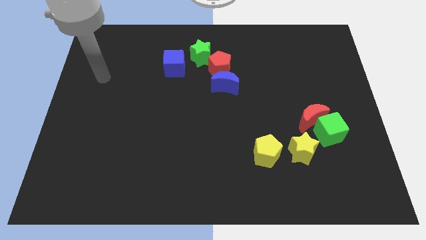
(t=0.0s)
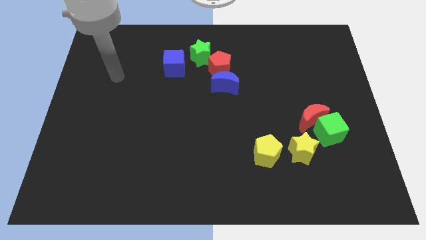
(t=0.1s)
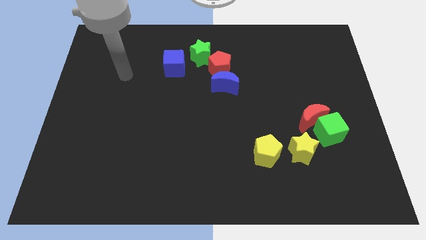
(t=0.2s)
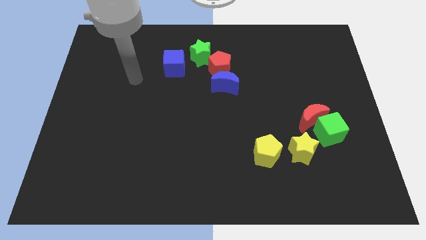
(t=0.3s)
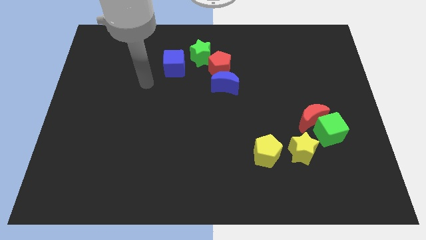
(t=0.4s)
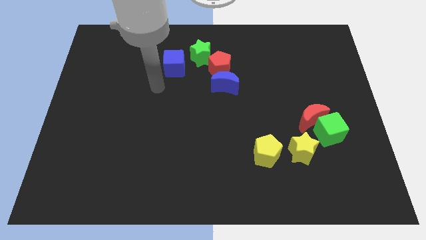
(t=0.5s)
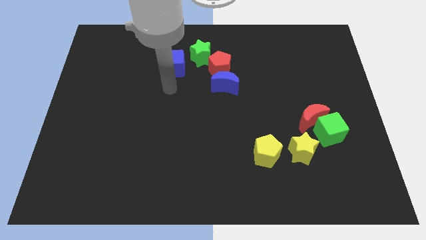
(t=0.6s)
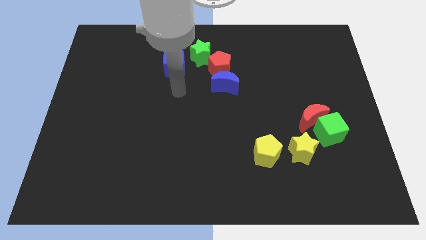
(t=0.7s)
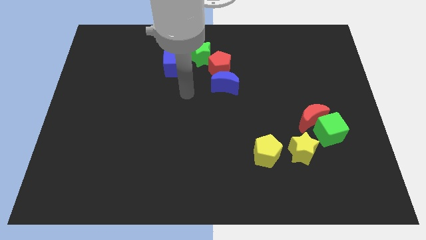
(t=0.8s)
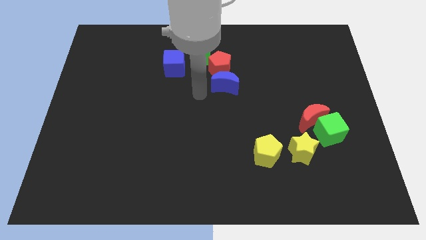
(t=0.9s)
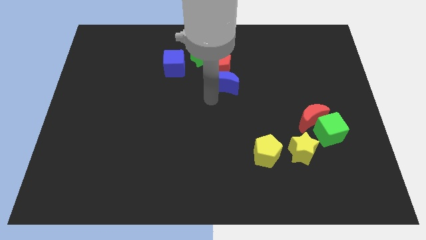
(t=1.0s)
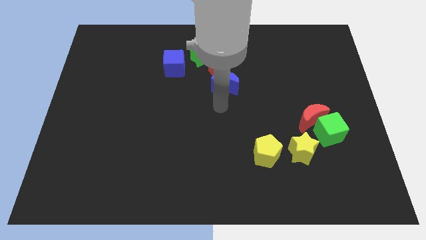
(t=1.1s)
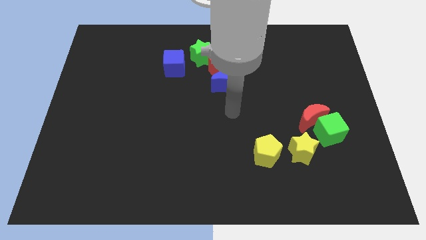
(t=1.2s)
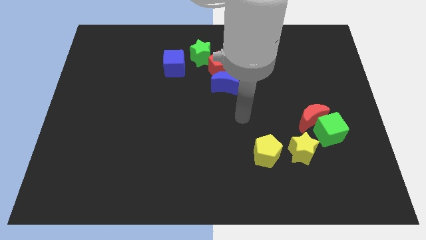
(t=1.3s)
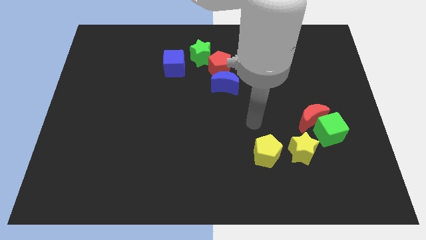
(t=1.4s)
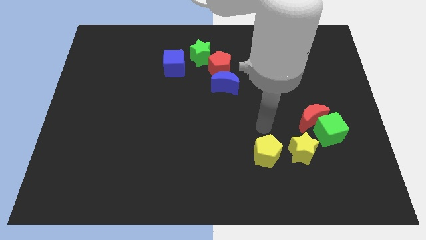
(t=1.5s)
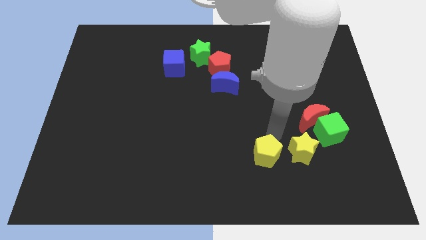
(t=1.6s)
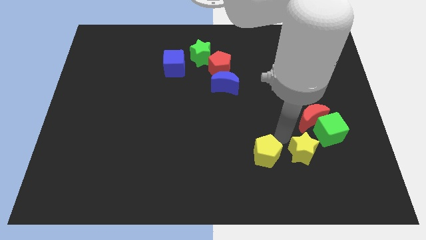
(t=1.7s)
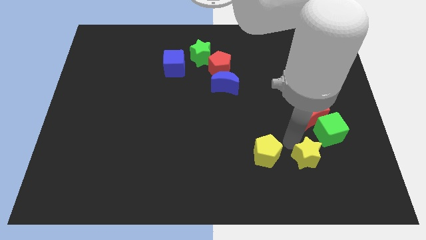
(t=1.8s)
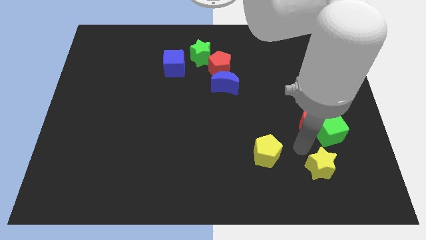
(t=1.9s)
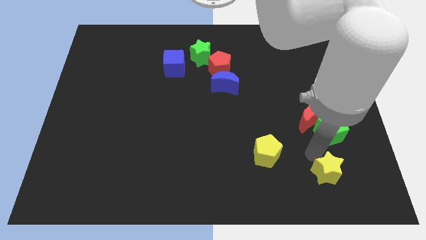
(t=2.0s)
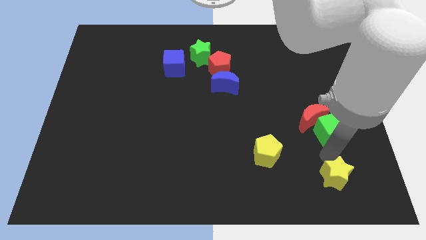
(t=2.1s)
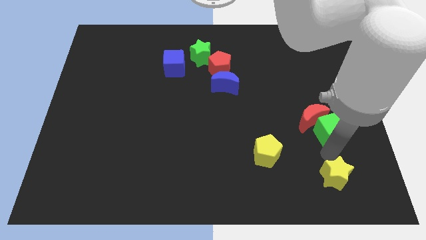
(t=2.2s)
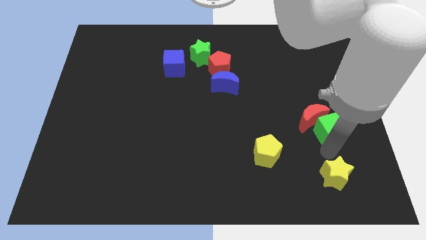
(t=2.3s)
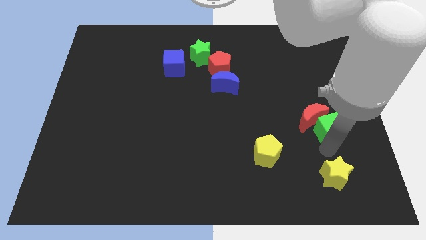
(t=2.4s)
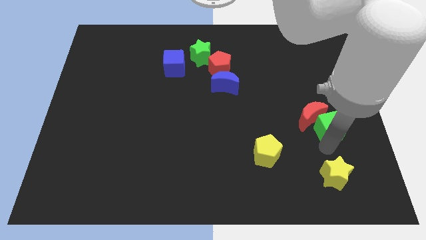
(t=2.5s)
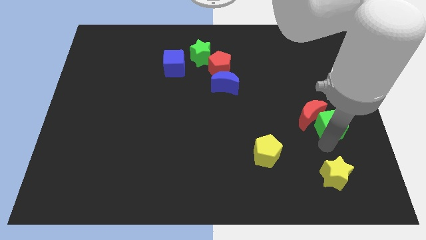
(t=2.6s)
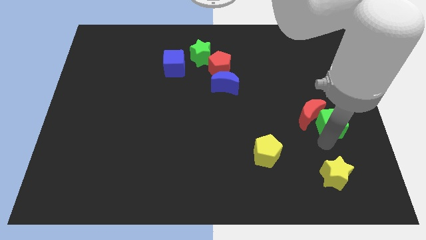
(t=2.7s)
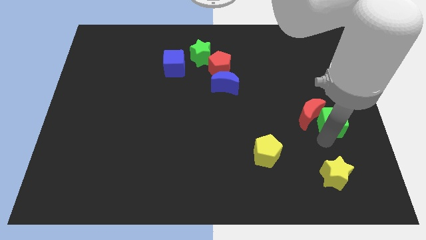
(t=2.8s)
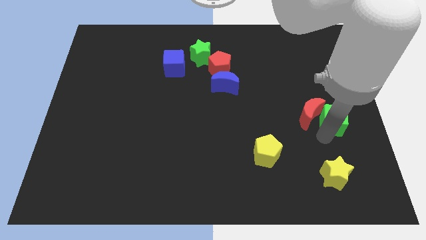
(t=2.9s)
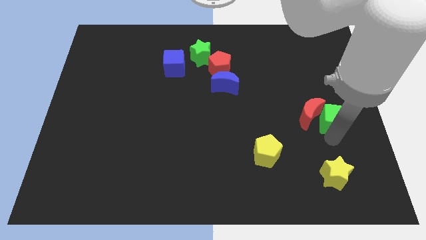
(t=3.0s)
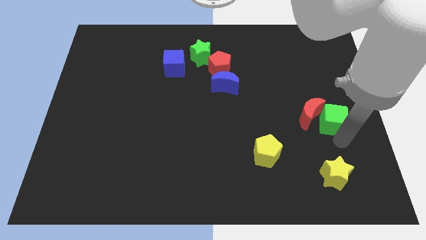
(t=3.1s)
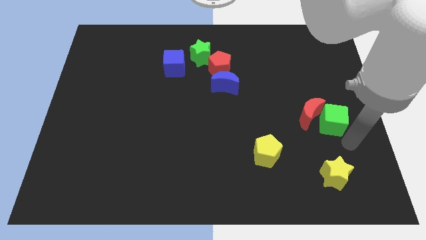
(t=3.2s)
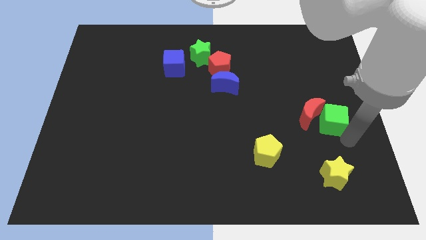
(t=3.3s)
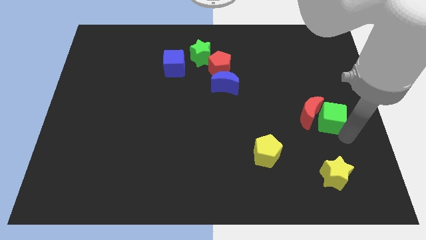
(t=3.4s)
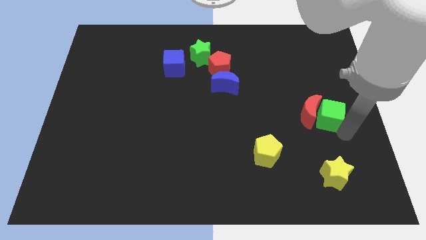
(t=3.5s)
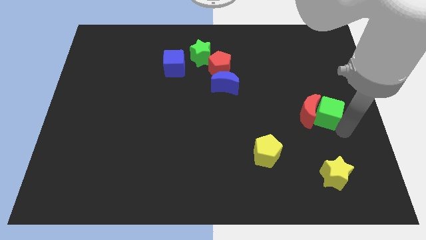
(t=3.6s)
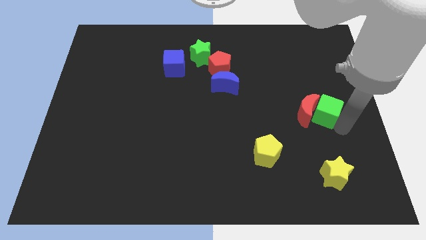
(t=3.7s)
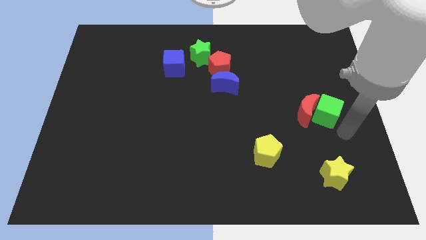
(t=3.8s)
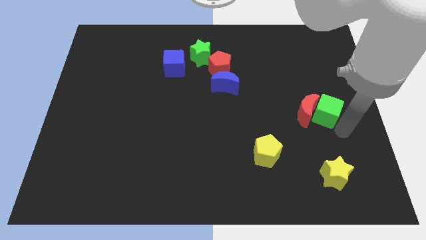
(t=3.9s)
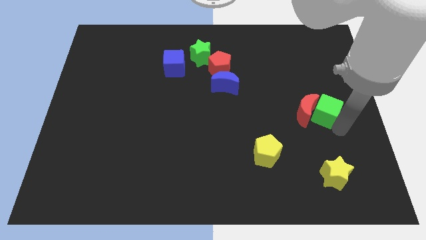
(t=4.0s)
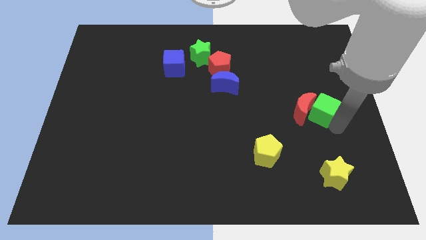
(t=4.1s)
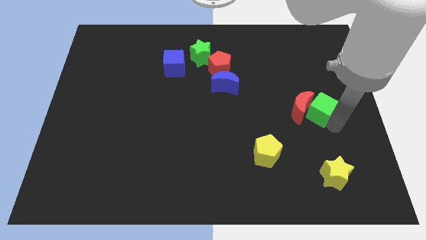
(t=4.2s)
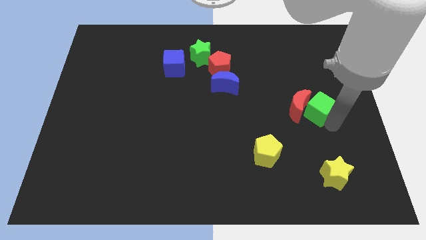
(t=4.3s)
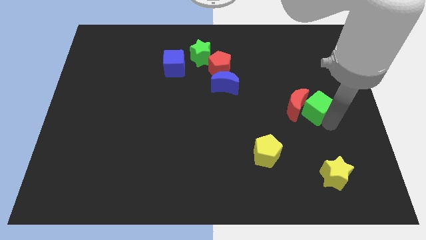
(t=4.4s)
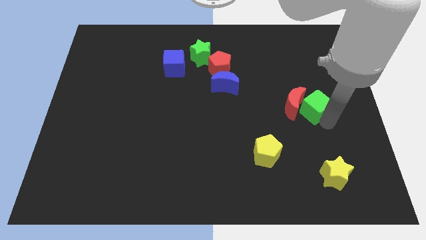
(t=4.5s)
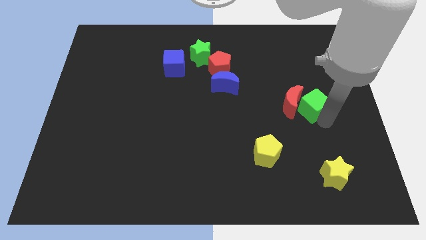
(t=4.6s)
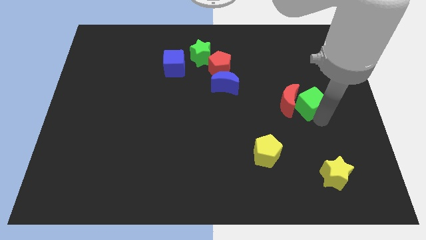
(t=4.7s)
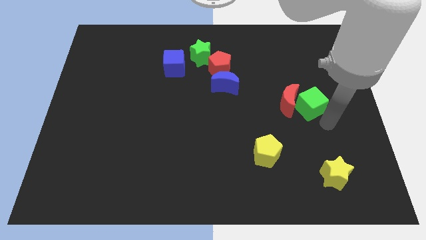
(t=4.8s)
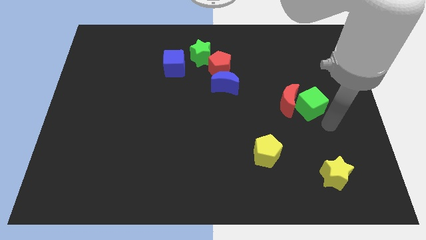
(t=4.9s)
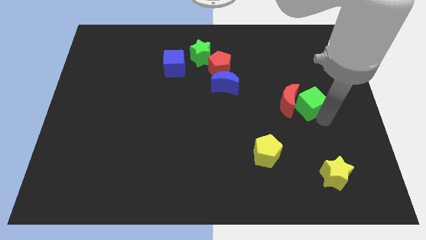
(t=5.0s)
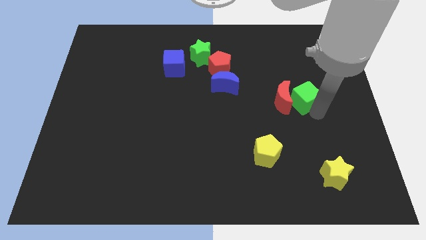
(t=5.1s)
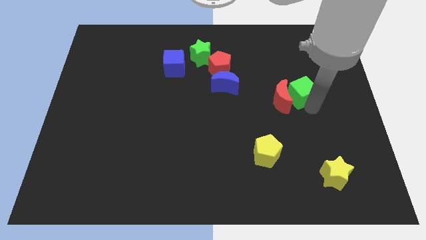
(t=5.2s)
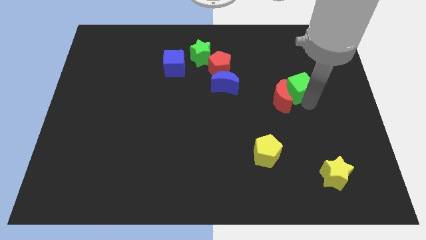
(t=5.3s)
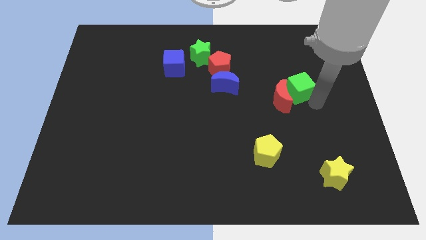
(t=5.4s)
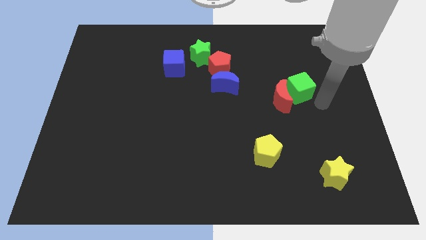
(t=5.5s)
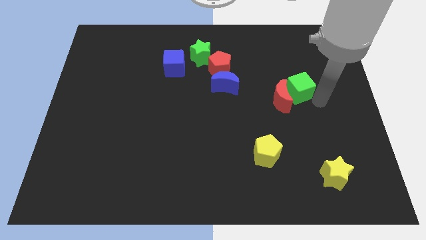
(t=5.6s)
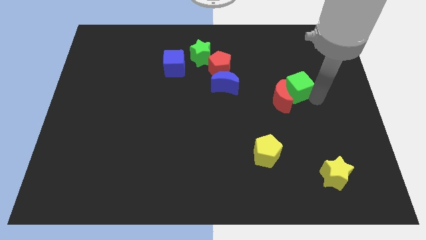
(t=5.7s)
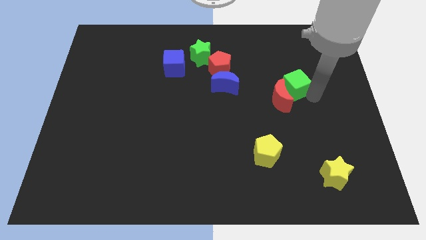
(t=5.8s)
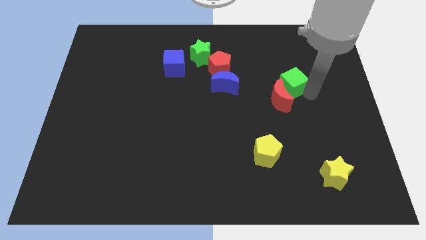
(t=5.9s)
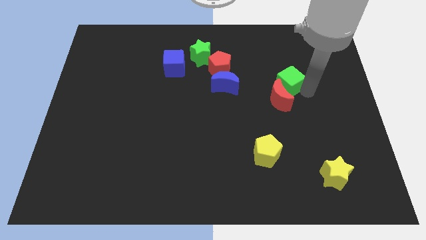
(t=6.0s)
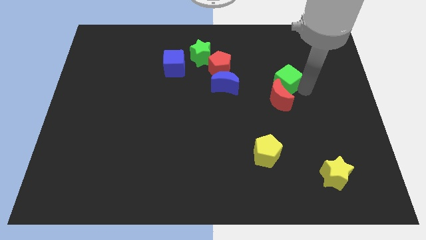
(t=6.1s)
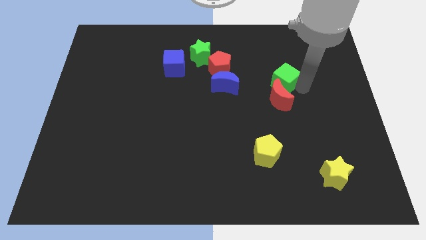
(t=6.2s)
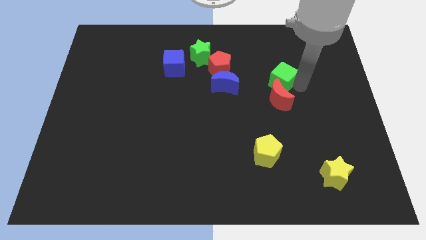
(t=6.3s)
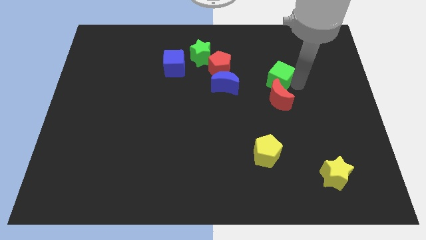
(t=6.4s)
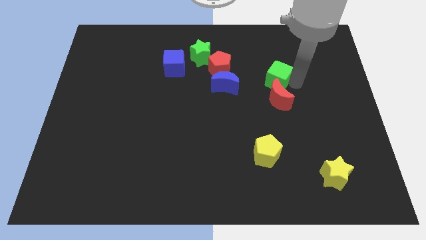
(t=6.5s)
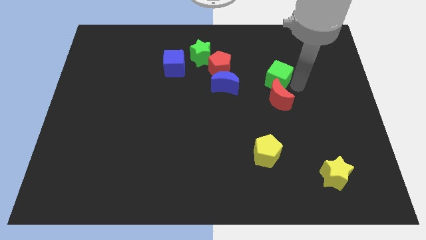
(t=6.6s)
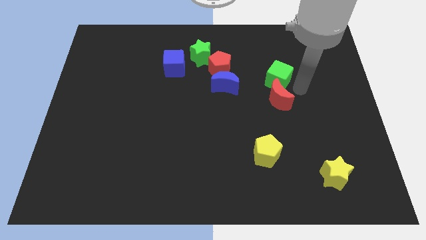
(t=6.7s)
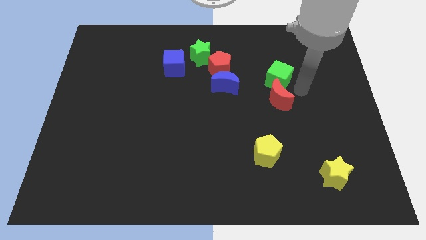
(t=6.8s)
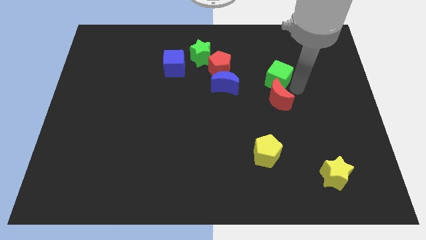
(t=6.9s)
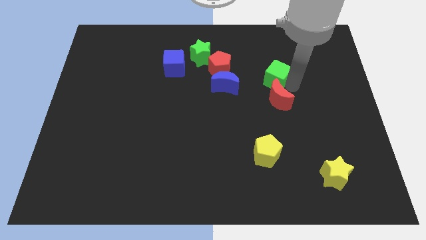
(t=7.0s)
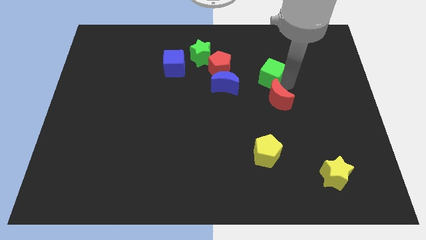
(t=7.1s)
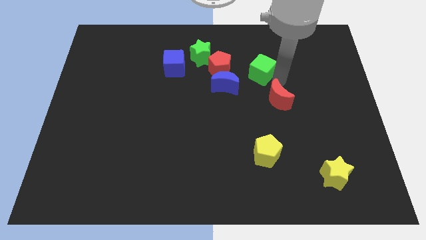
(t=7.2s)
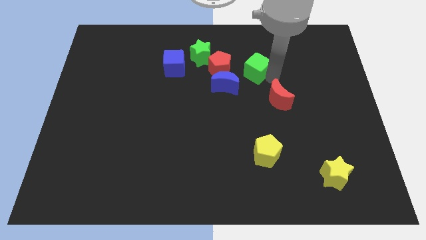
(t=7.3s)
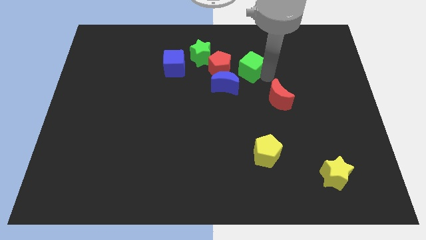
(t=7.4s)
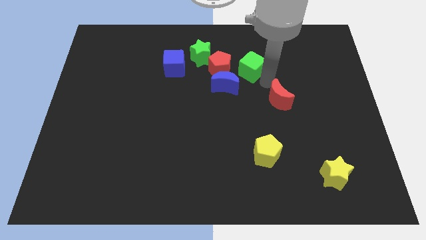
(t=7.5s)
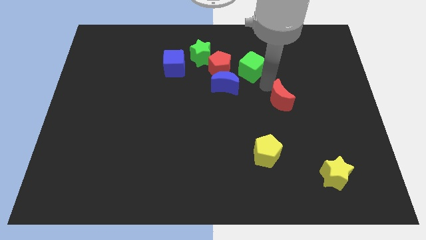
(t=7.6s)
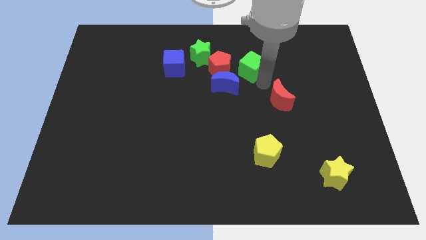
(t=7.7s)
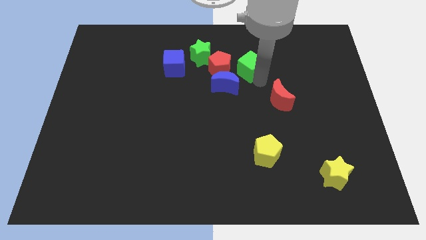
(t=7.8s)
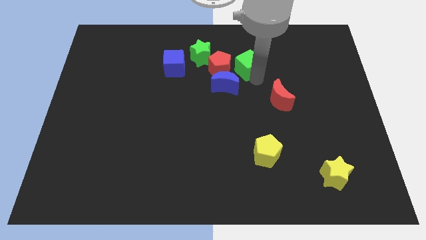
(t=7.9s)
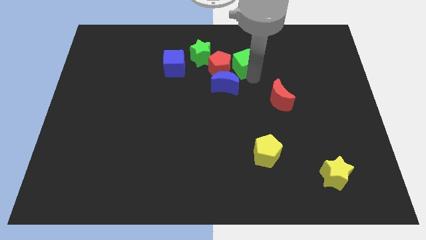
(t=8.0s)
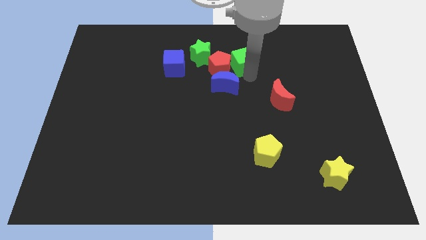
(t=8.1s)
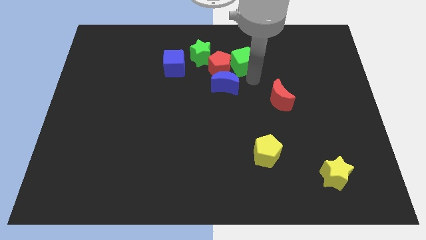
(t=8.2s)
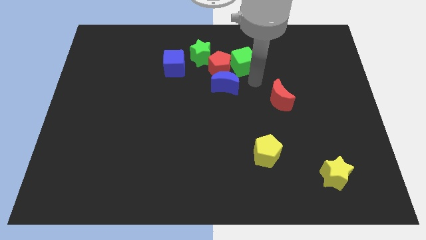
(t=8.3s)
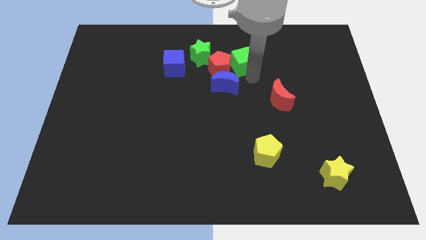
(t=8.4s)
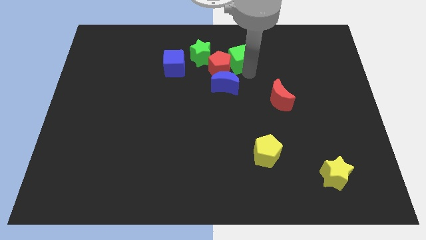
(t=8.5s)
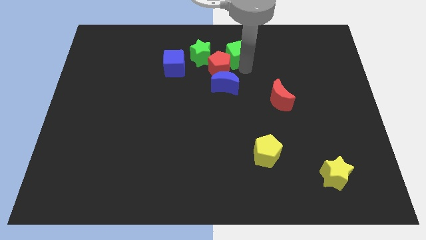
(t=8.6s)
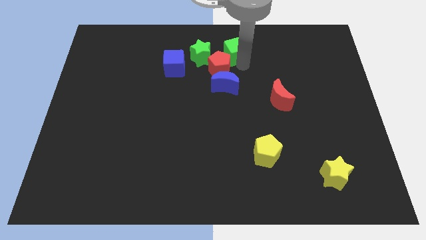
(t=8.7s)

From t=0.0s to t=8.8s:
put the green cube to the top
